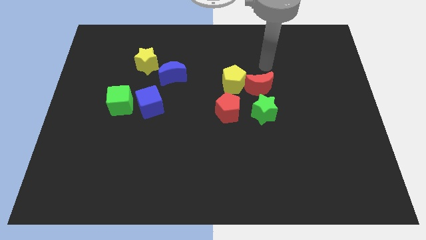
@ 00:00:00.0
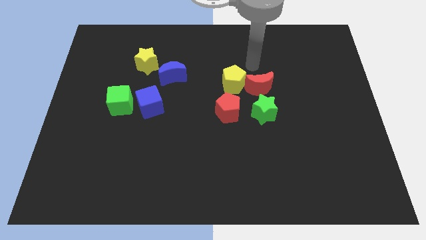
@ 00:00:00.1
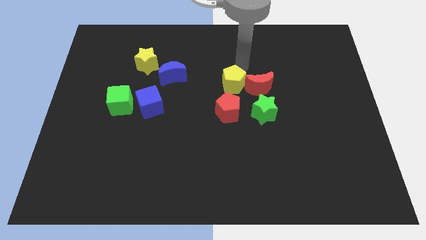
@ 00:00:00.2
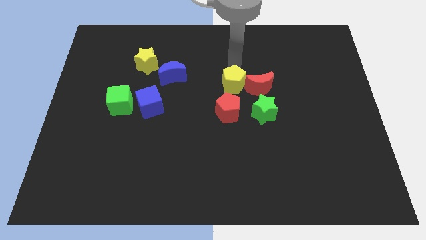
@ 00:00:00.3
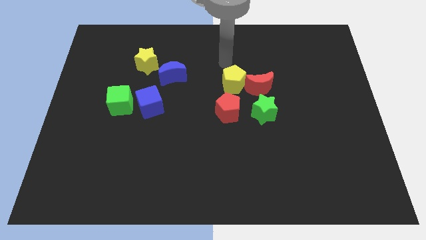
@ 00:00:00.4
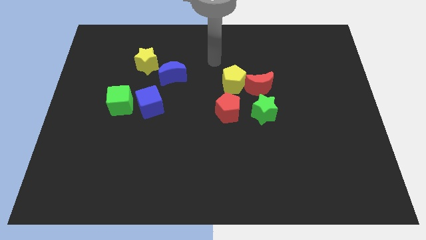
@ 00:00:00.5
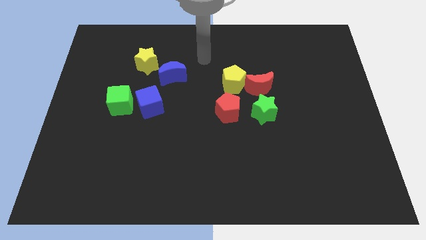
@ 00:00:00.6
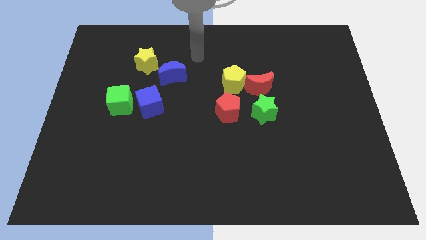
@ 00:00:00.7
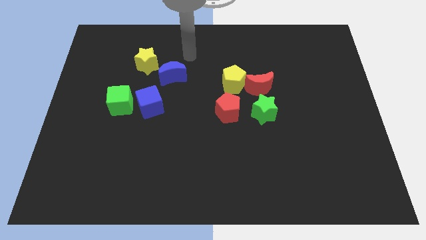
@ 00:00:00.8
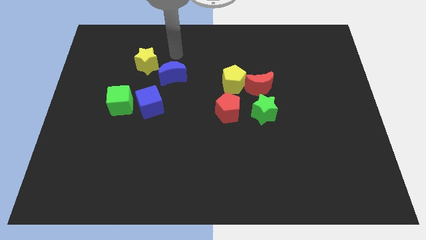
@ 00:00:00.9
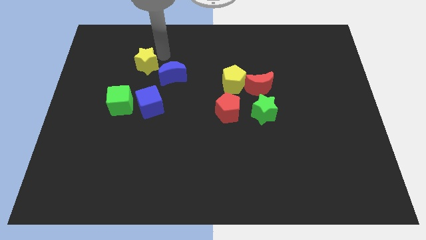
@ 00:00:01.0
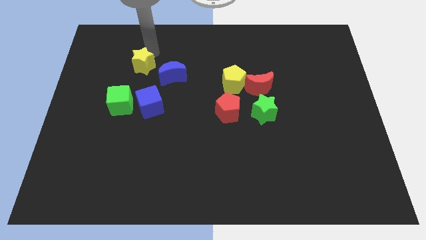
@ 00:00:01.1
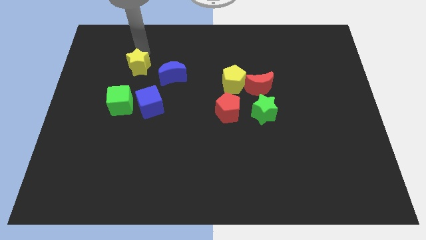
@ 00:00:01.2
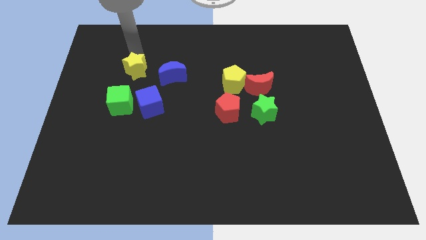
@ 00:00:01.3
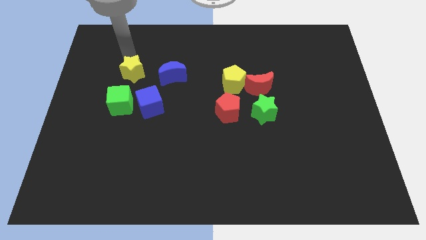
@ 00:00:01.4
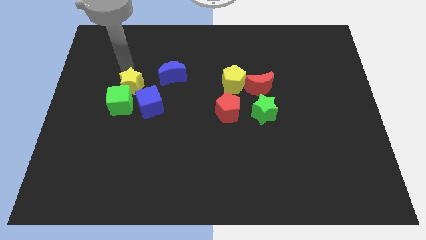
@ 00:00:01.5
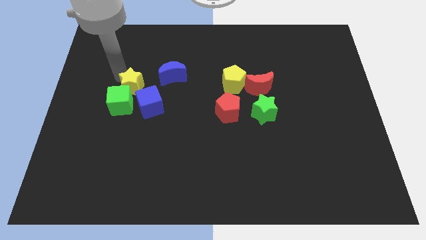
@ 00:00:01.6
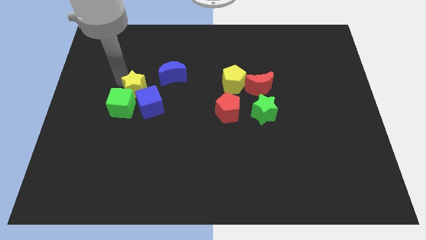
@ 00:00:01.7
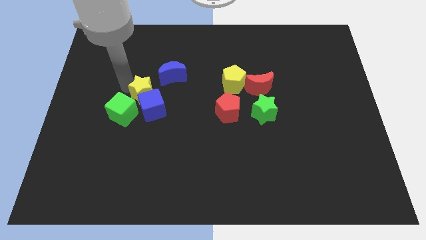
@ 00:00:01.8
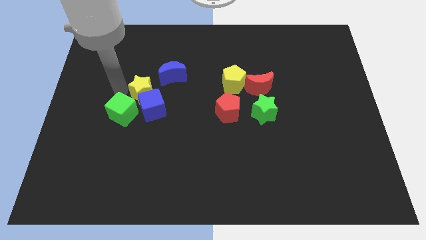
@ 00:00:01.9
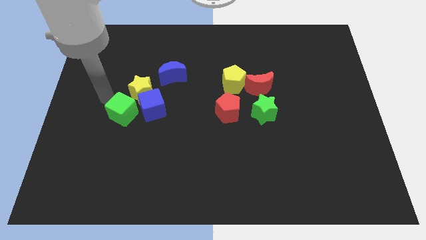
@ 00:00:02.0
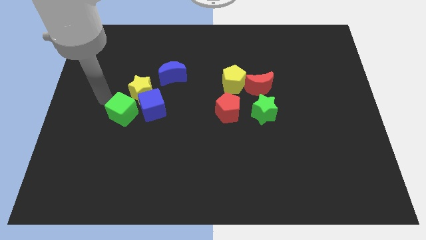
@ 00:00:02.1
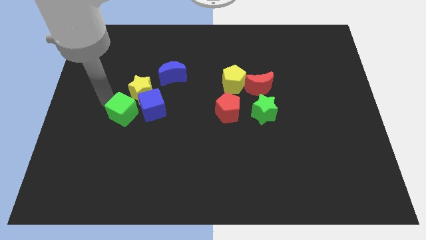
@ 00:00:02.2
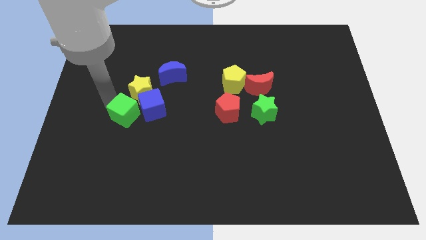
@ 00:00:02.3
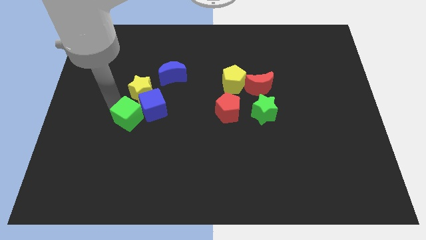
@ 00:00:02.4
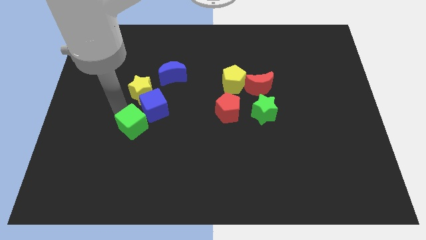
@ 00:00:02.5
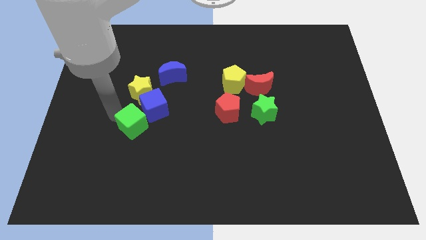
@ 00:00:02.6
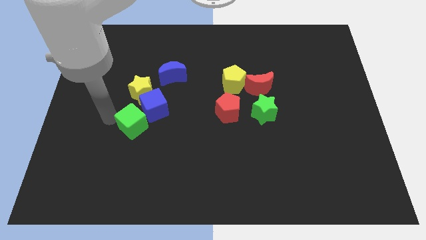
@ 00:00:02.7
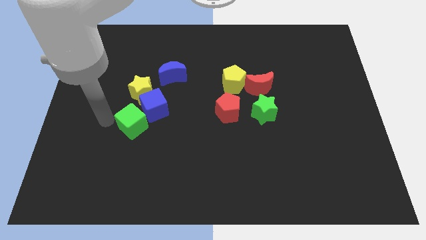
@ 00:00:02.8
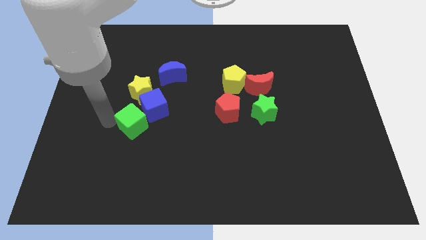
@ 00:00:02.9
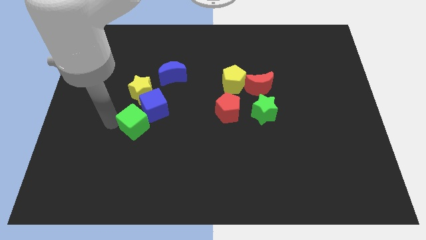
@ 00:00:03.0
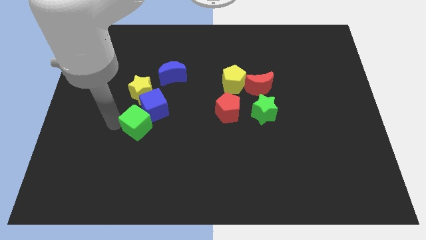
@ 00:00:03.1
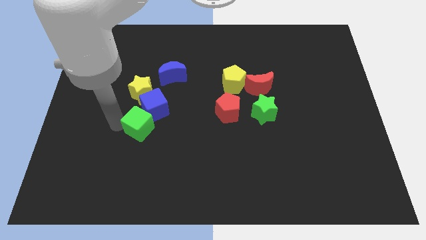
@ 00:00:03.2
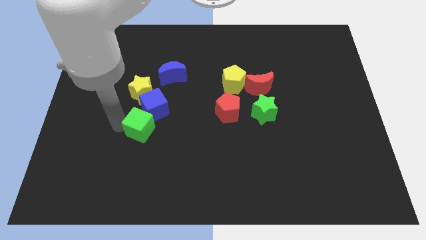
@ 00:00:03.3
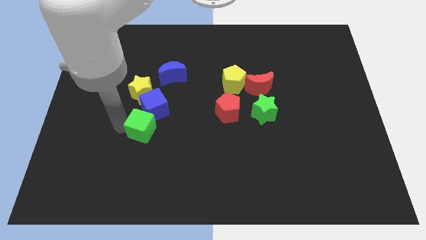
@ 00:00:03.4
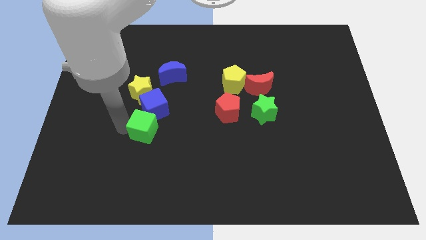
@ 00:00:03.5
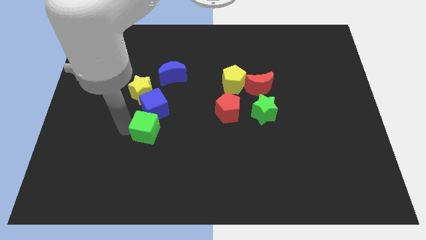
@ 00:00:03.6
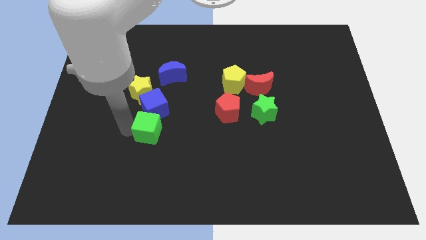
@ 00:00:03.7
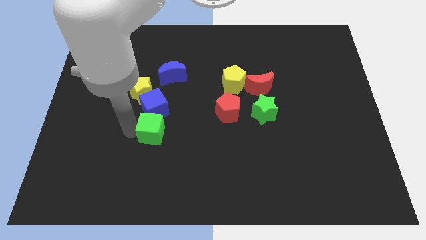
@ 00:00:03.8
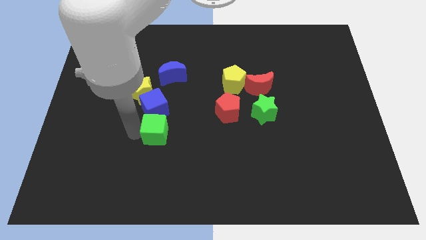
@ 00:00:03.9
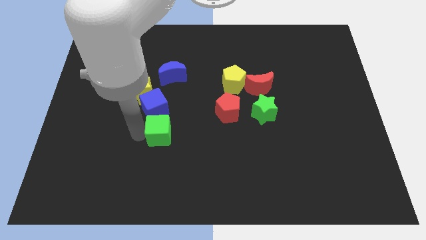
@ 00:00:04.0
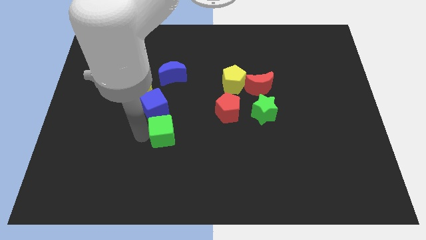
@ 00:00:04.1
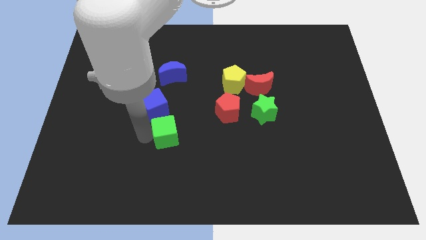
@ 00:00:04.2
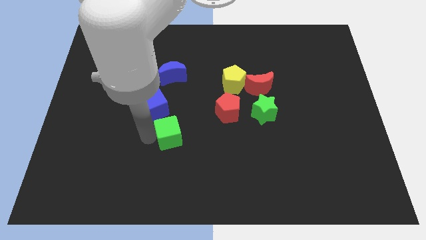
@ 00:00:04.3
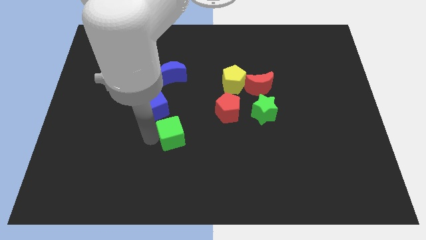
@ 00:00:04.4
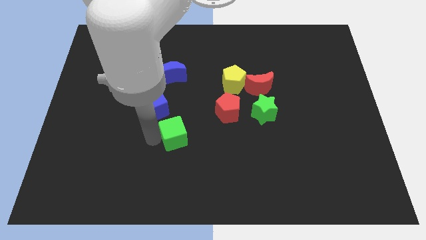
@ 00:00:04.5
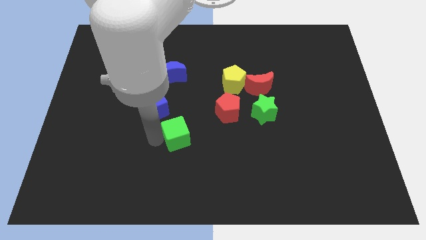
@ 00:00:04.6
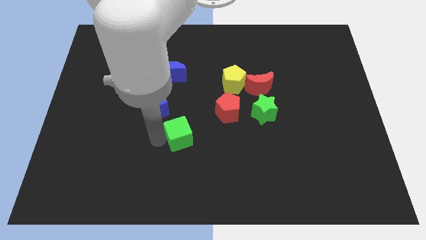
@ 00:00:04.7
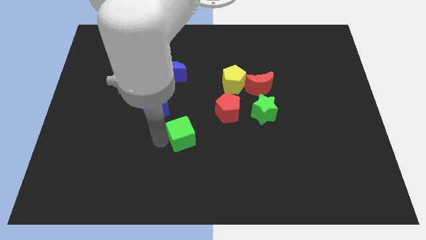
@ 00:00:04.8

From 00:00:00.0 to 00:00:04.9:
push the green cube diagonally down and to the left of the red pentagon

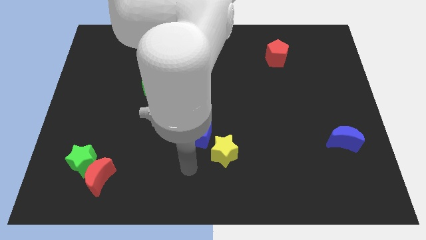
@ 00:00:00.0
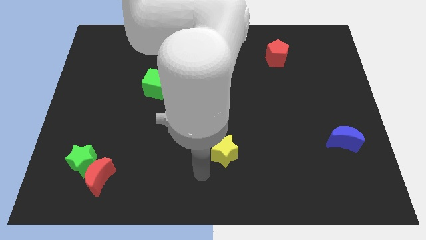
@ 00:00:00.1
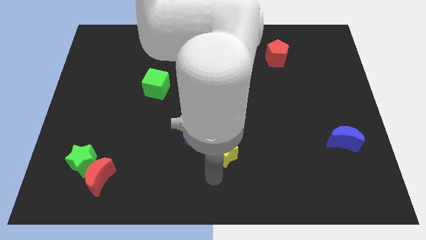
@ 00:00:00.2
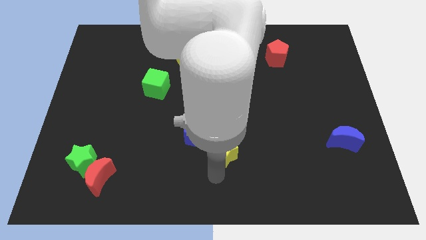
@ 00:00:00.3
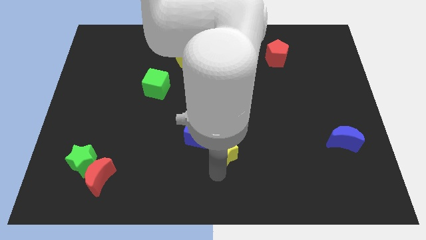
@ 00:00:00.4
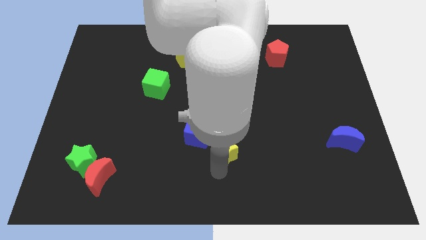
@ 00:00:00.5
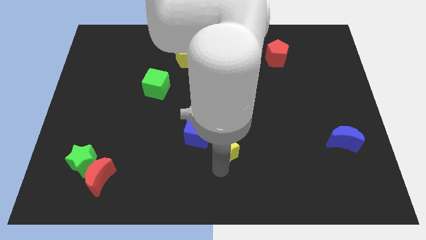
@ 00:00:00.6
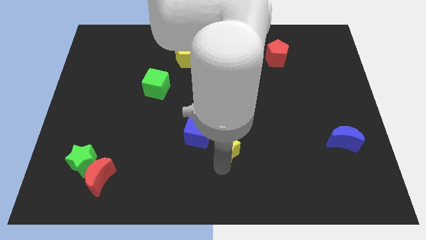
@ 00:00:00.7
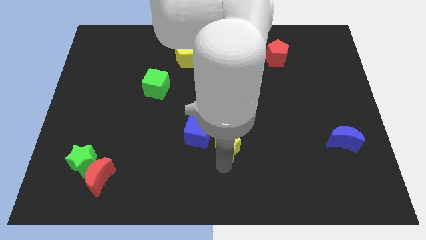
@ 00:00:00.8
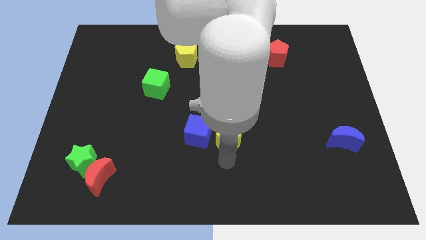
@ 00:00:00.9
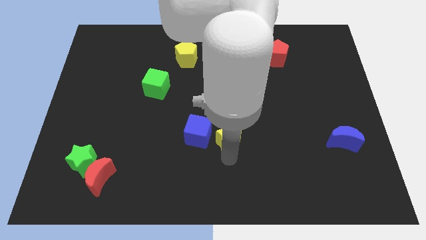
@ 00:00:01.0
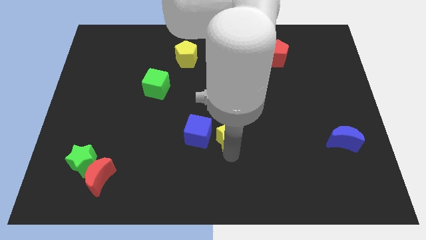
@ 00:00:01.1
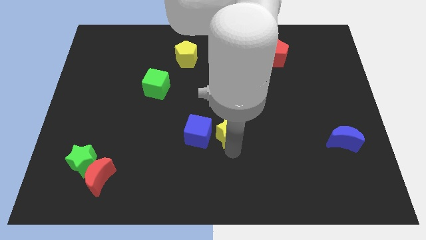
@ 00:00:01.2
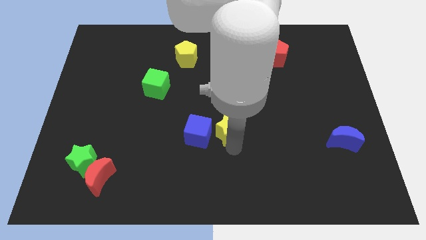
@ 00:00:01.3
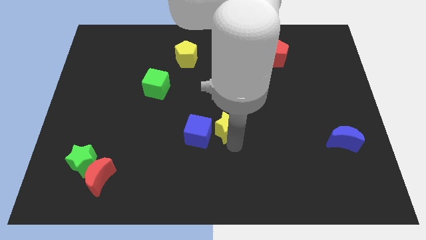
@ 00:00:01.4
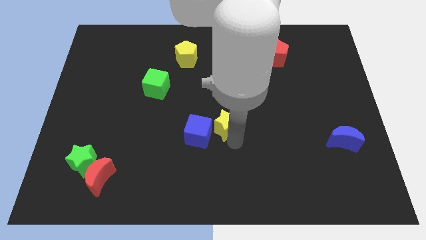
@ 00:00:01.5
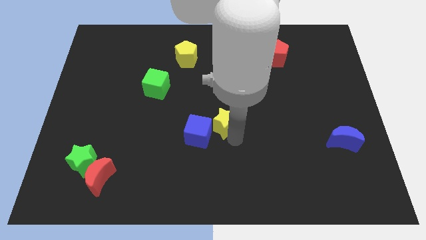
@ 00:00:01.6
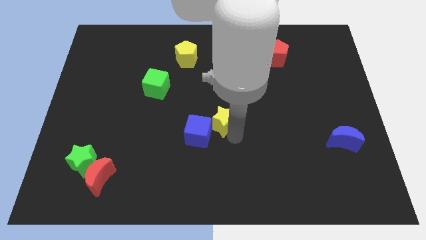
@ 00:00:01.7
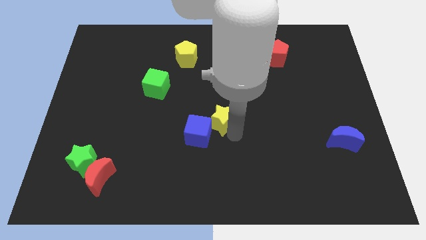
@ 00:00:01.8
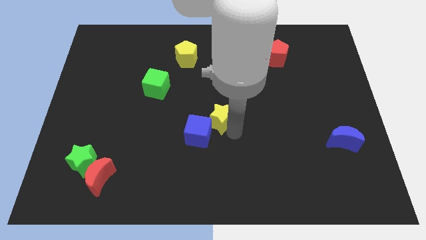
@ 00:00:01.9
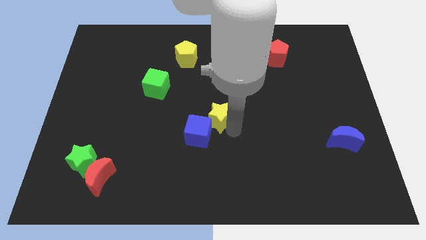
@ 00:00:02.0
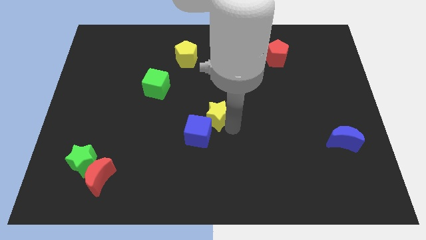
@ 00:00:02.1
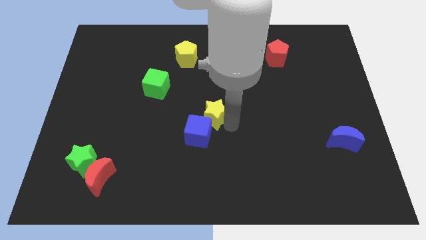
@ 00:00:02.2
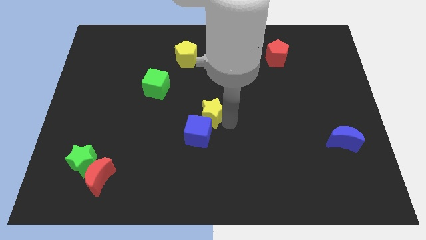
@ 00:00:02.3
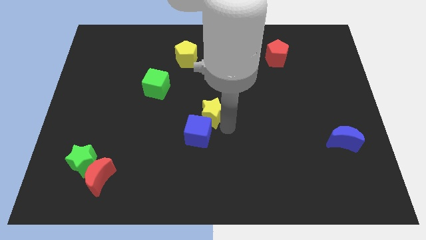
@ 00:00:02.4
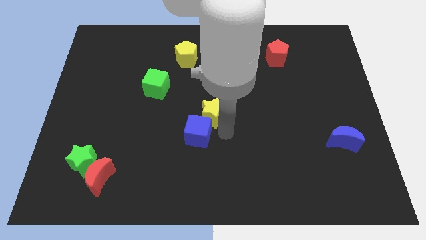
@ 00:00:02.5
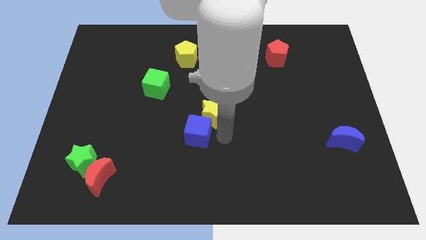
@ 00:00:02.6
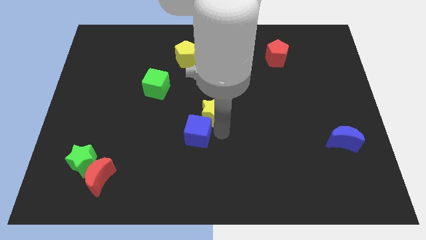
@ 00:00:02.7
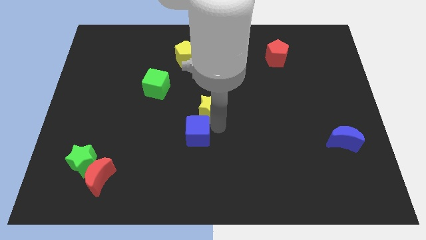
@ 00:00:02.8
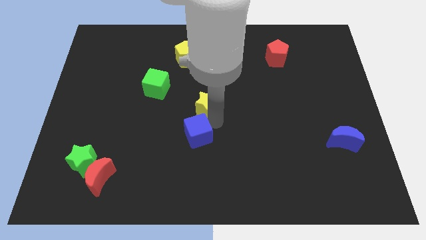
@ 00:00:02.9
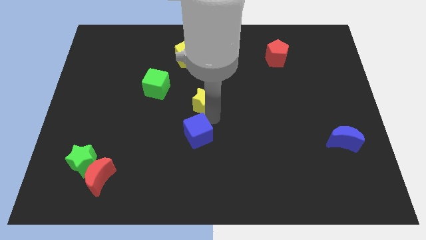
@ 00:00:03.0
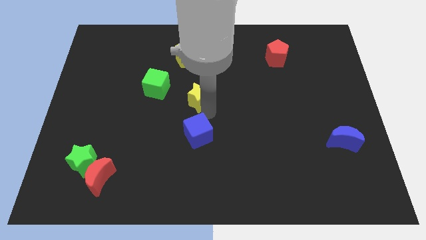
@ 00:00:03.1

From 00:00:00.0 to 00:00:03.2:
slide the yellow star to the right side of the green cube
